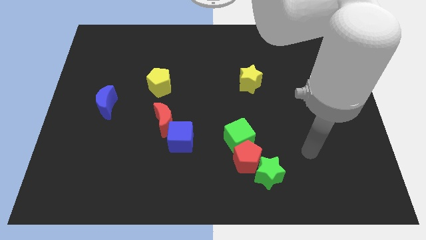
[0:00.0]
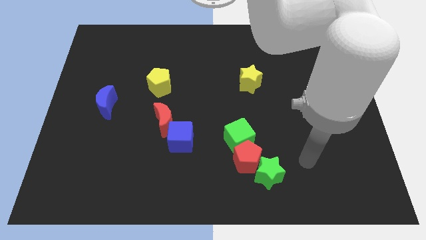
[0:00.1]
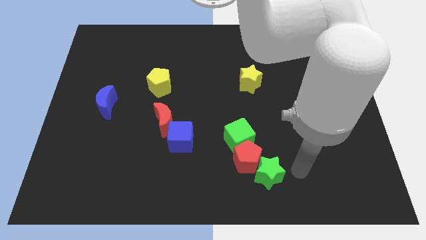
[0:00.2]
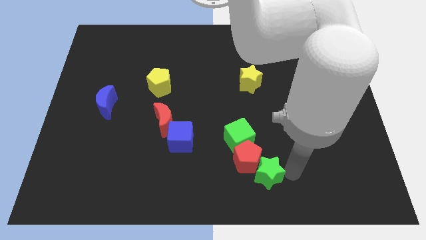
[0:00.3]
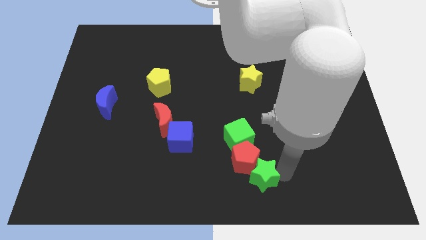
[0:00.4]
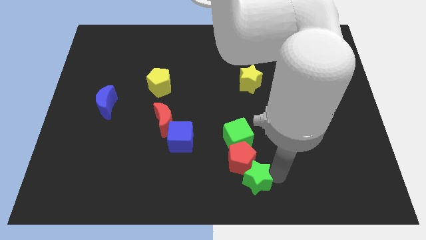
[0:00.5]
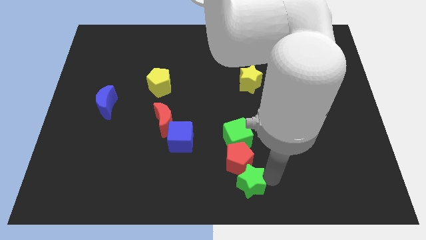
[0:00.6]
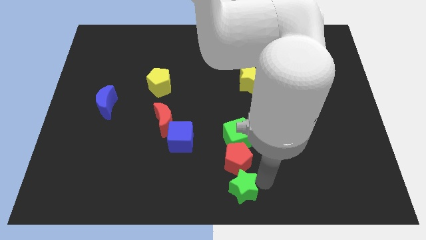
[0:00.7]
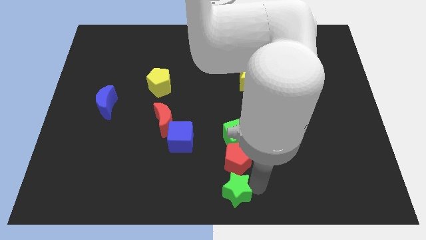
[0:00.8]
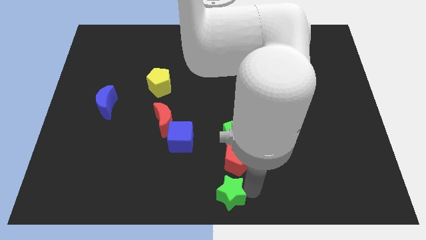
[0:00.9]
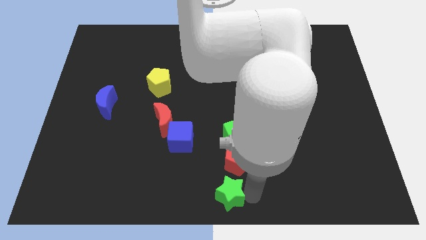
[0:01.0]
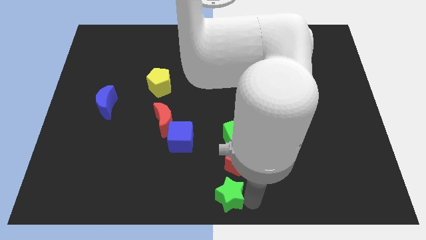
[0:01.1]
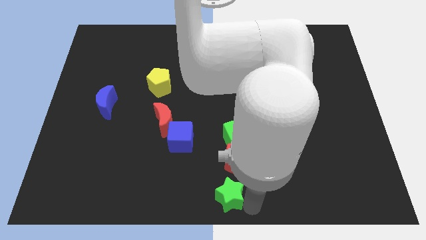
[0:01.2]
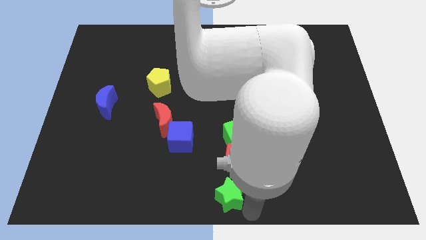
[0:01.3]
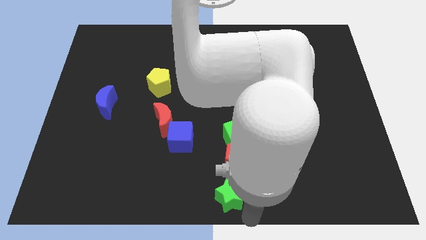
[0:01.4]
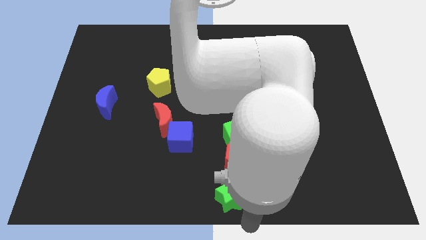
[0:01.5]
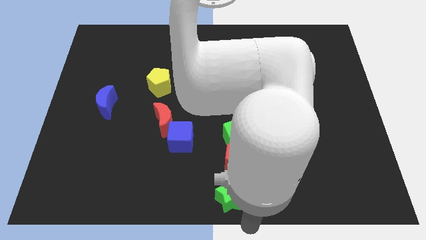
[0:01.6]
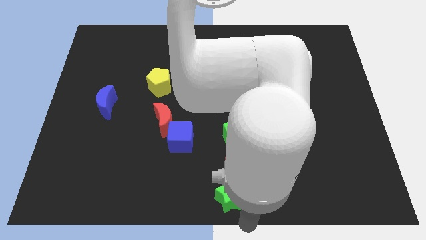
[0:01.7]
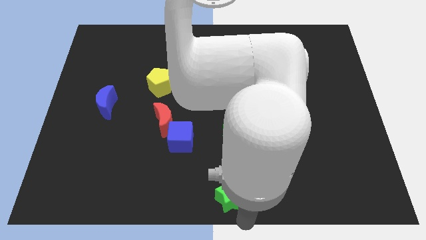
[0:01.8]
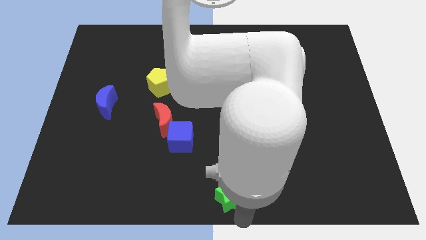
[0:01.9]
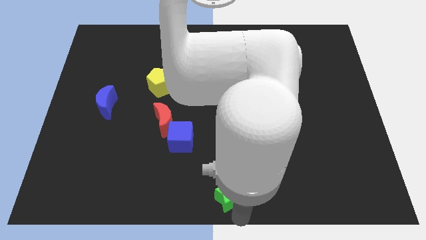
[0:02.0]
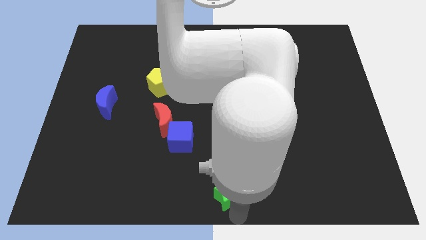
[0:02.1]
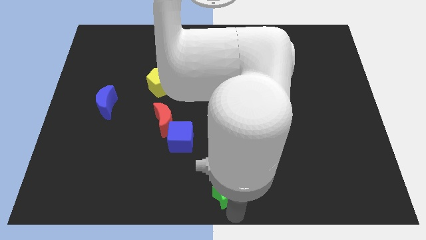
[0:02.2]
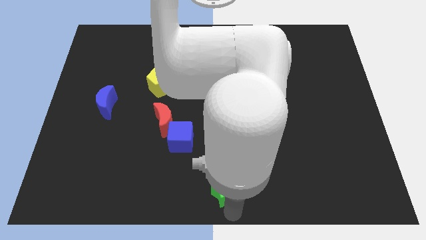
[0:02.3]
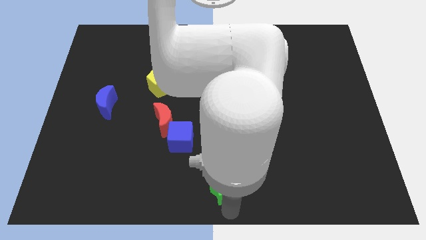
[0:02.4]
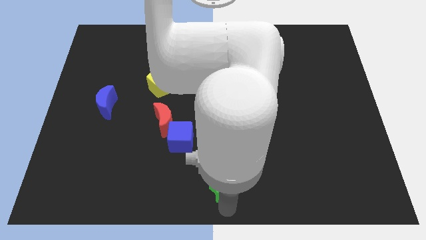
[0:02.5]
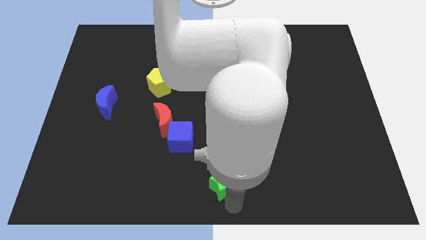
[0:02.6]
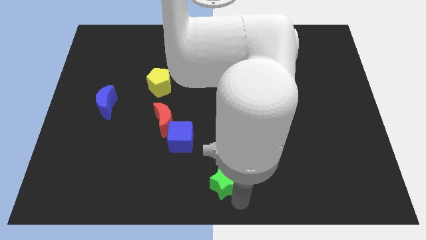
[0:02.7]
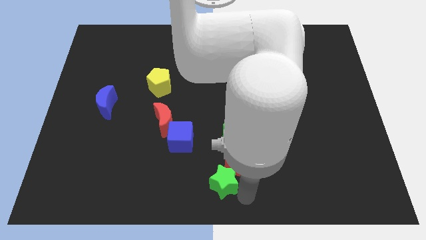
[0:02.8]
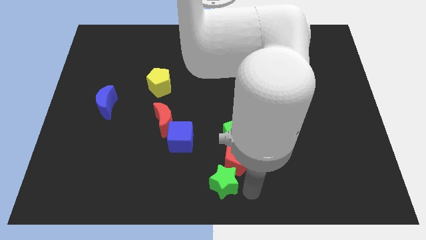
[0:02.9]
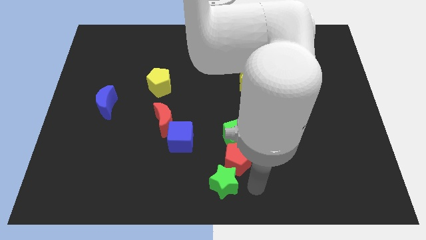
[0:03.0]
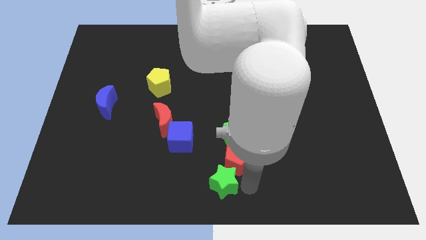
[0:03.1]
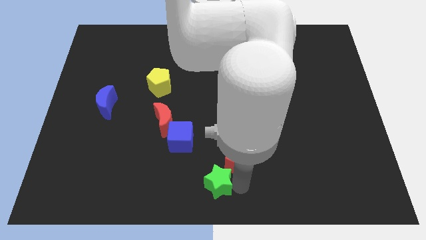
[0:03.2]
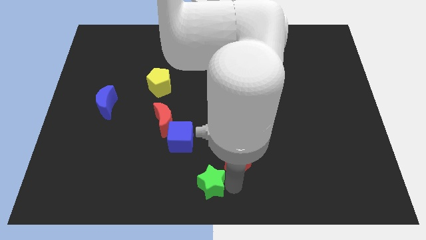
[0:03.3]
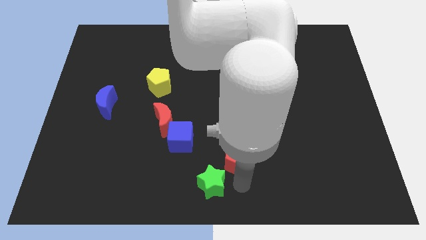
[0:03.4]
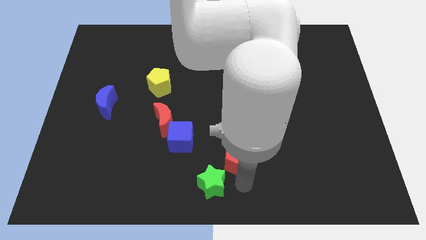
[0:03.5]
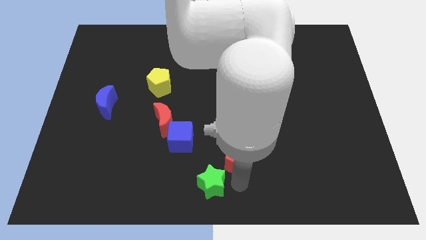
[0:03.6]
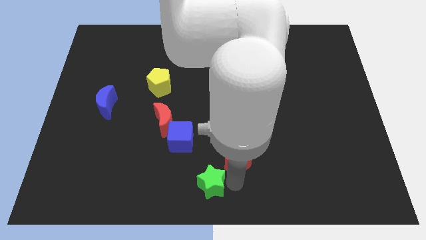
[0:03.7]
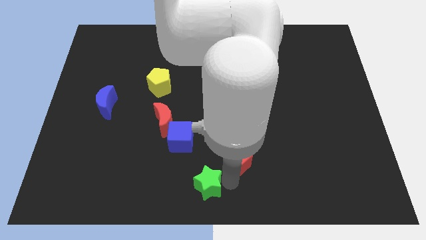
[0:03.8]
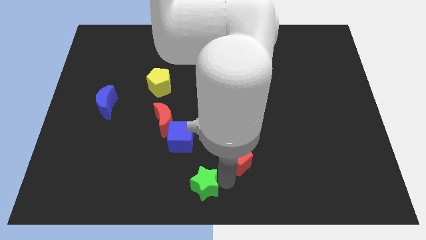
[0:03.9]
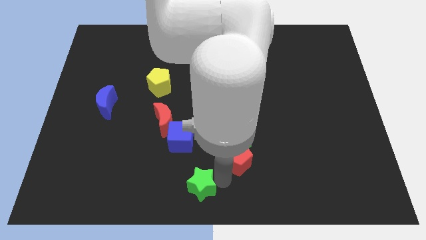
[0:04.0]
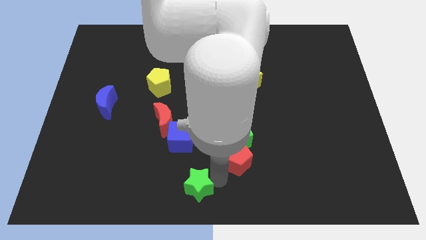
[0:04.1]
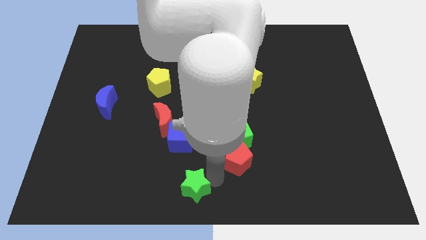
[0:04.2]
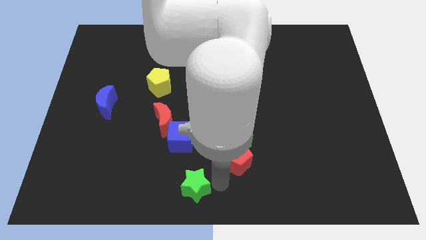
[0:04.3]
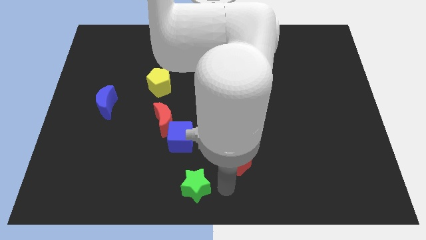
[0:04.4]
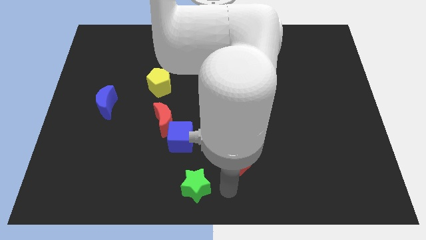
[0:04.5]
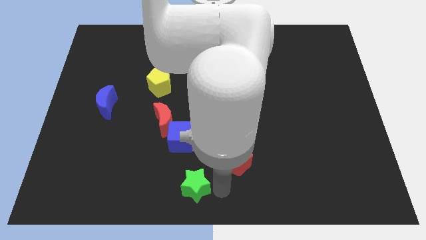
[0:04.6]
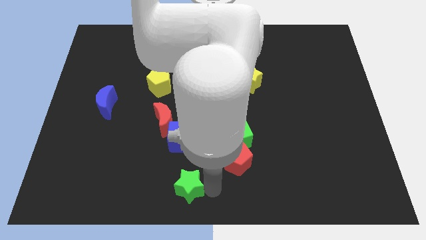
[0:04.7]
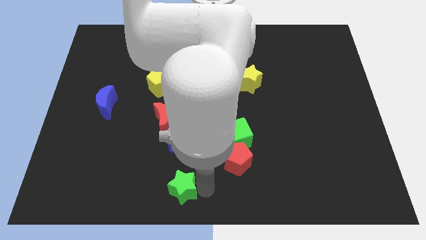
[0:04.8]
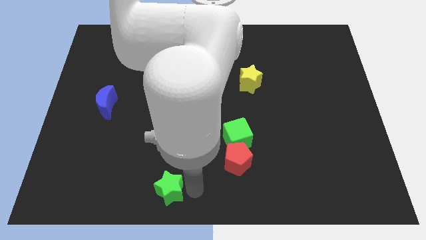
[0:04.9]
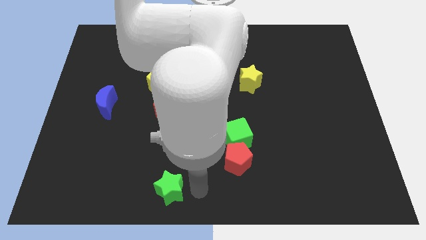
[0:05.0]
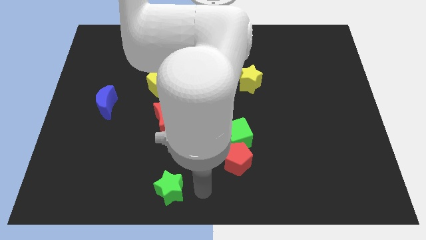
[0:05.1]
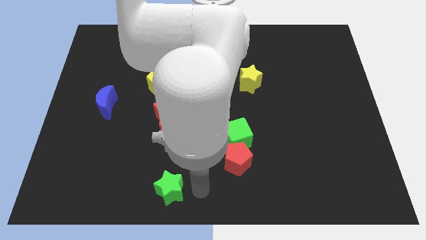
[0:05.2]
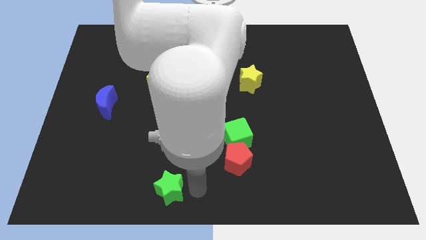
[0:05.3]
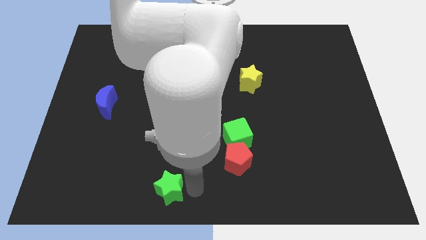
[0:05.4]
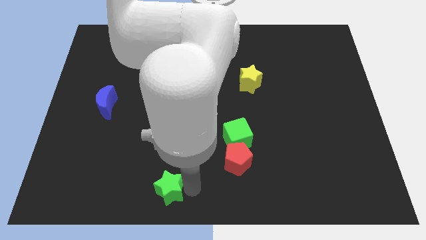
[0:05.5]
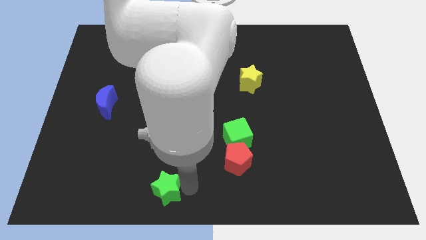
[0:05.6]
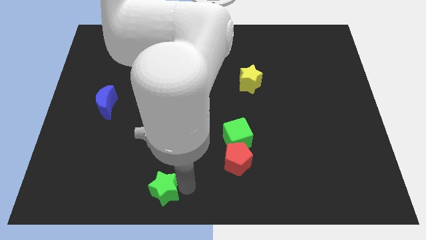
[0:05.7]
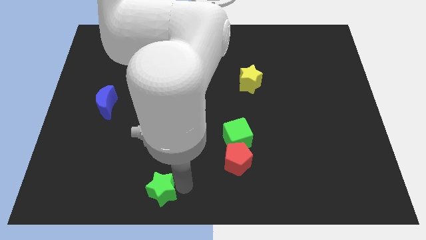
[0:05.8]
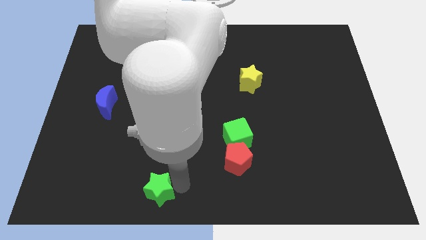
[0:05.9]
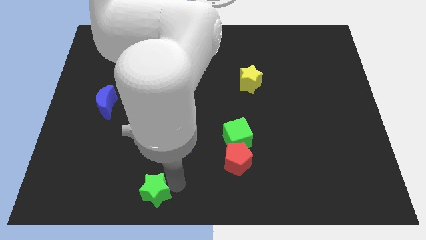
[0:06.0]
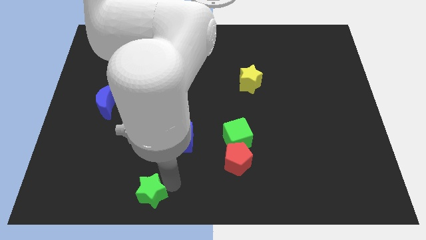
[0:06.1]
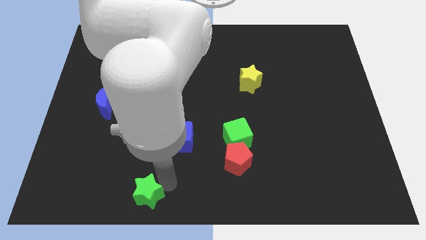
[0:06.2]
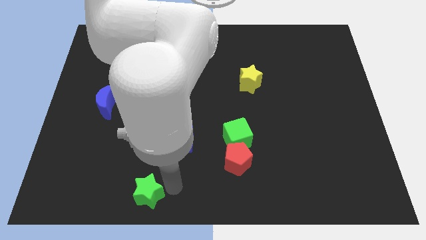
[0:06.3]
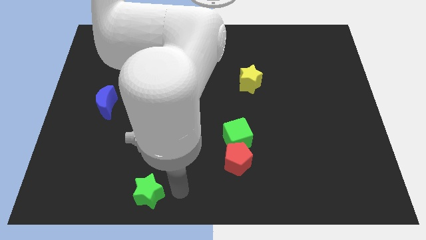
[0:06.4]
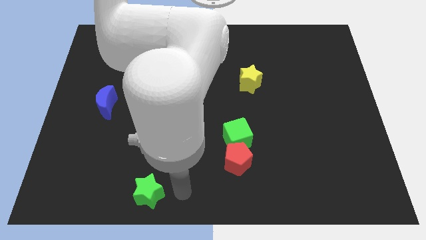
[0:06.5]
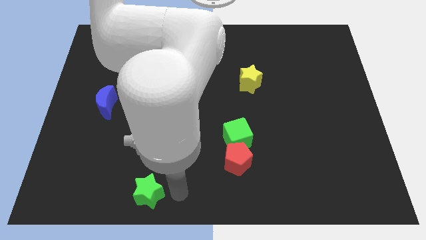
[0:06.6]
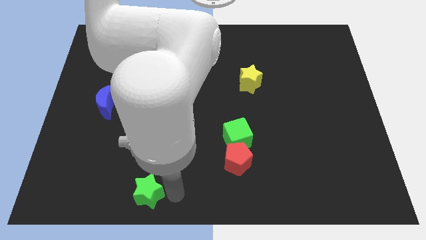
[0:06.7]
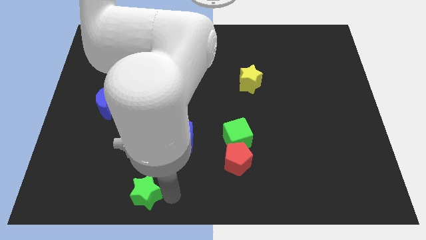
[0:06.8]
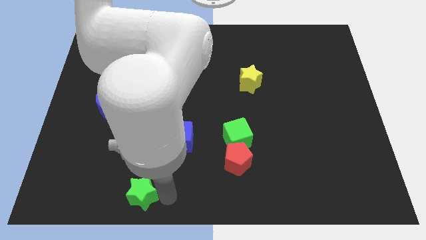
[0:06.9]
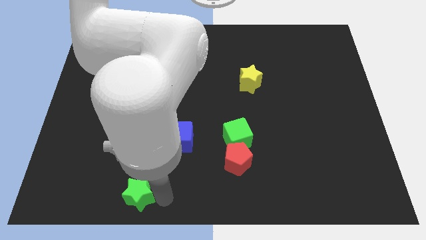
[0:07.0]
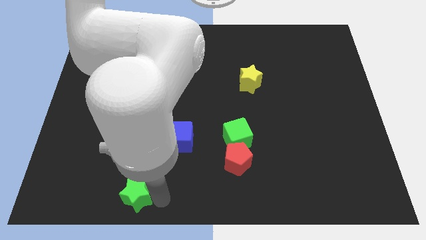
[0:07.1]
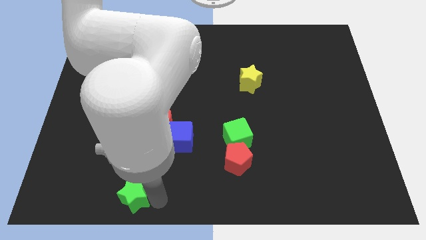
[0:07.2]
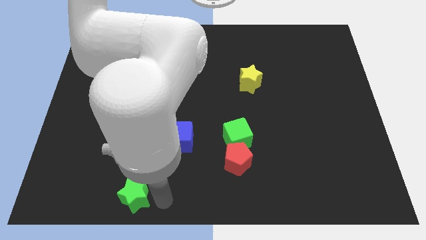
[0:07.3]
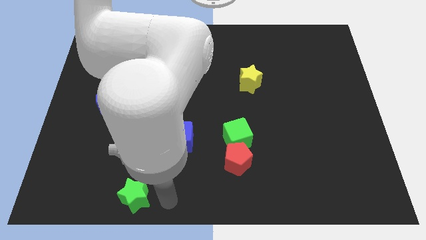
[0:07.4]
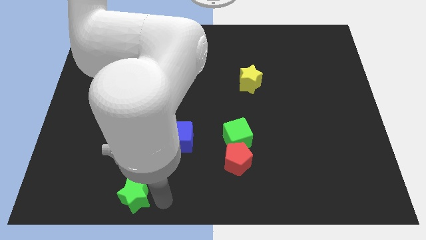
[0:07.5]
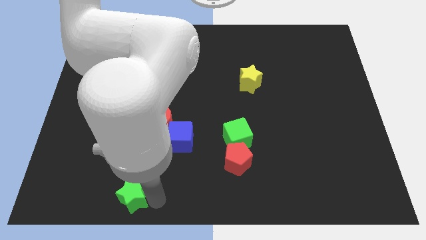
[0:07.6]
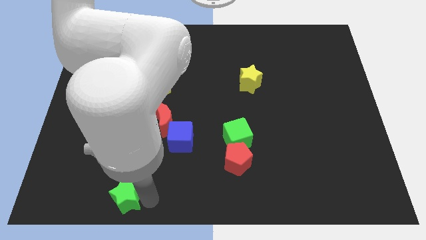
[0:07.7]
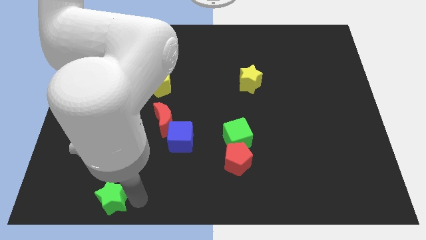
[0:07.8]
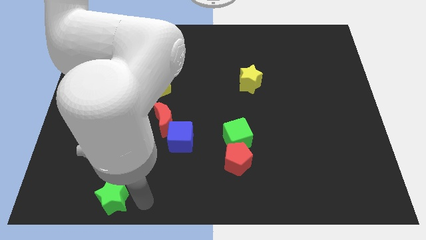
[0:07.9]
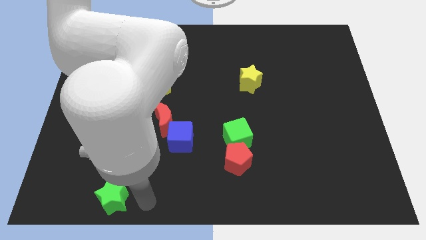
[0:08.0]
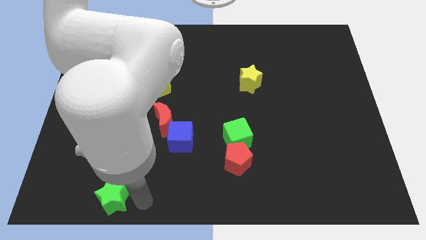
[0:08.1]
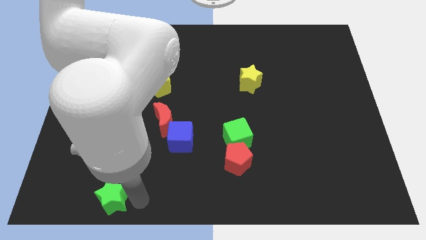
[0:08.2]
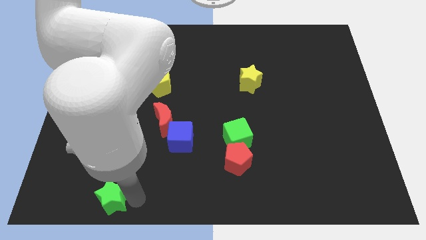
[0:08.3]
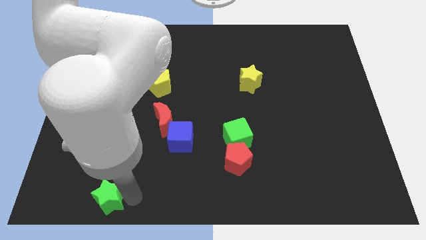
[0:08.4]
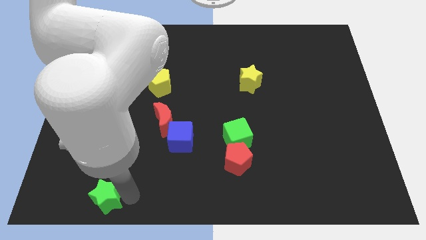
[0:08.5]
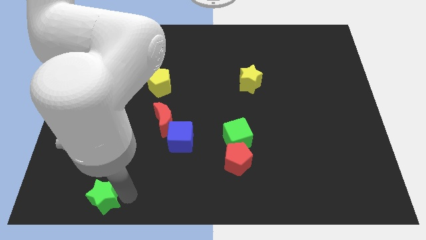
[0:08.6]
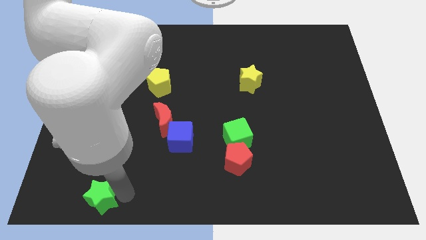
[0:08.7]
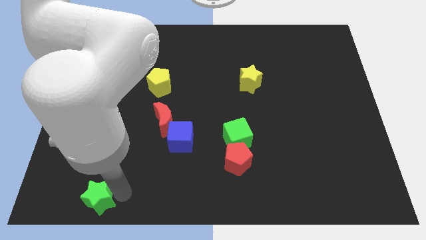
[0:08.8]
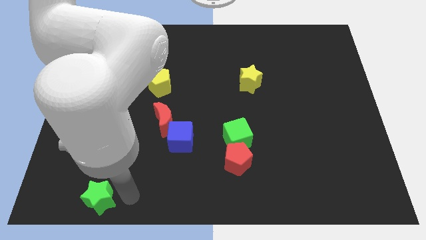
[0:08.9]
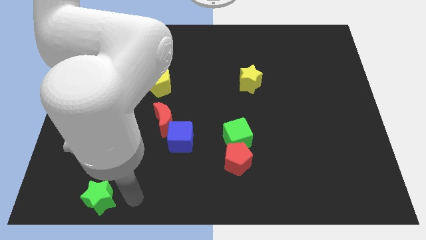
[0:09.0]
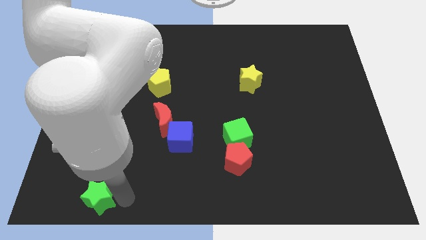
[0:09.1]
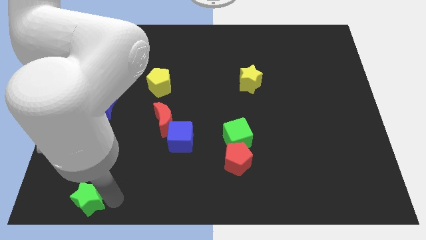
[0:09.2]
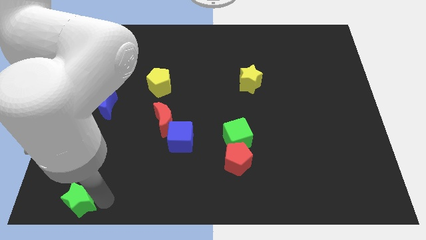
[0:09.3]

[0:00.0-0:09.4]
put the green star to the lower left corner
